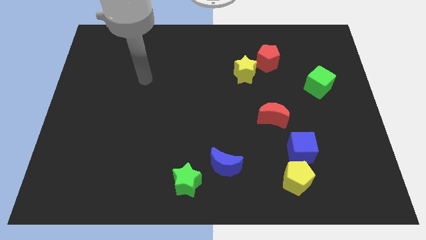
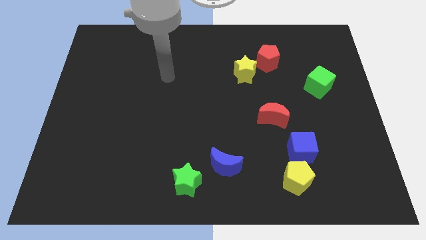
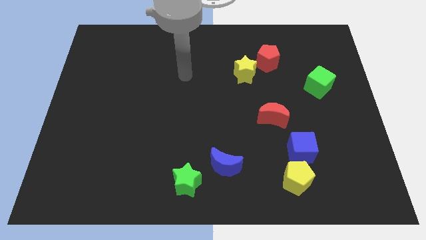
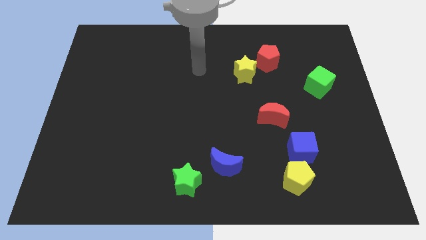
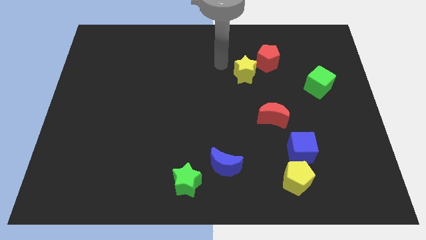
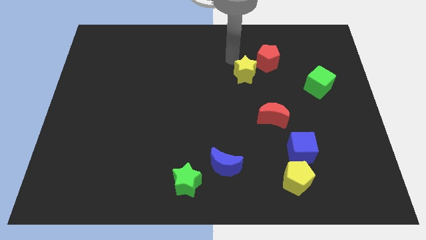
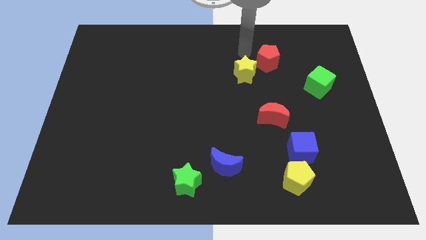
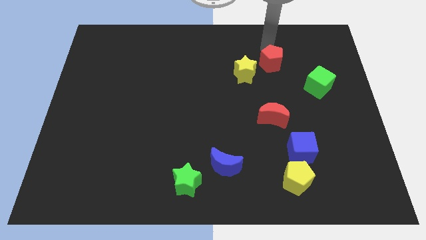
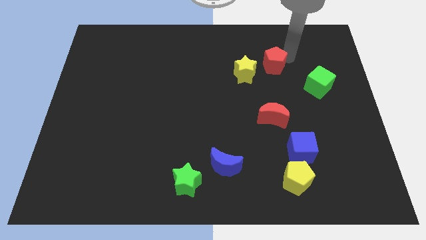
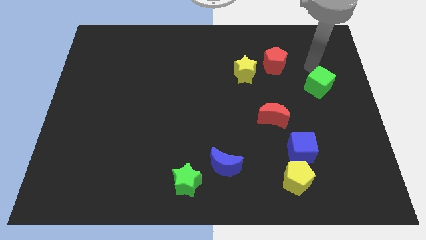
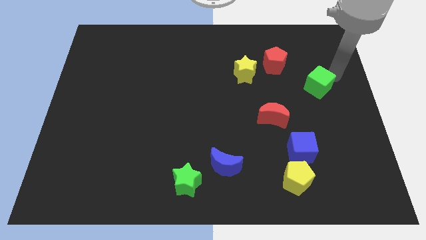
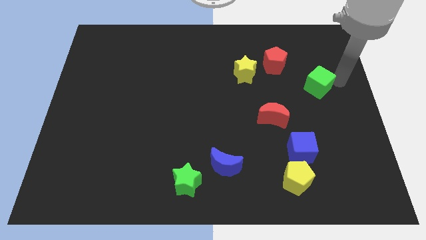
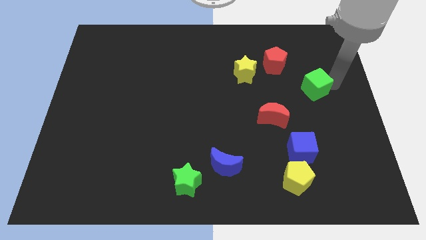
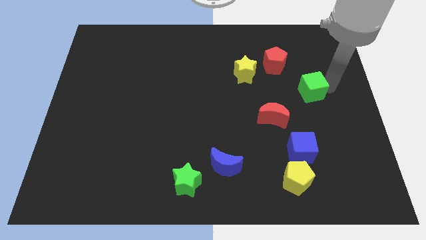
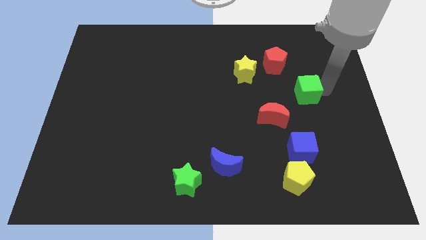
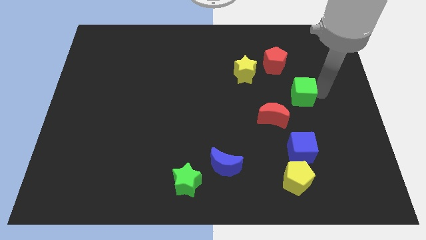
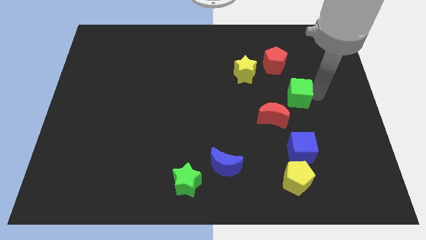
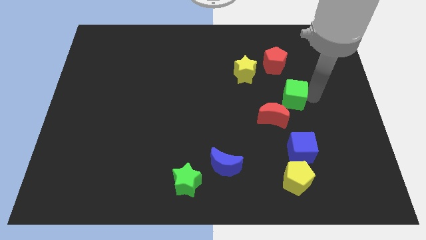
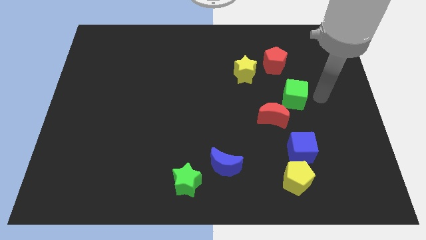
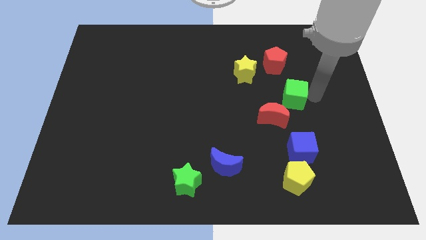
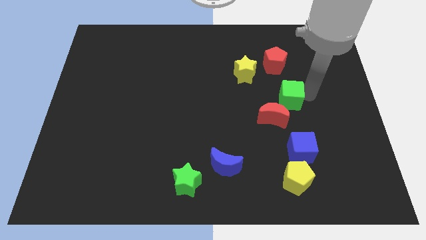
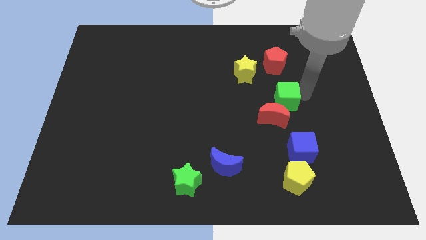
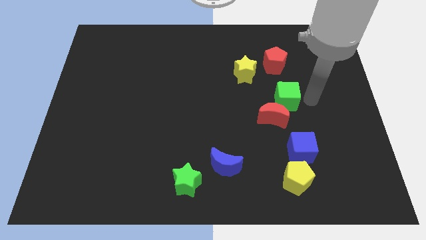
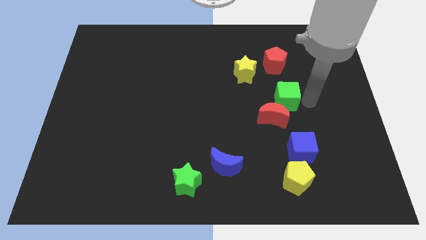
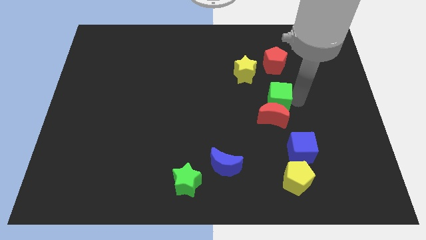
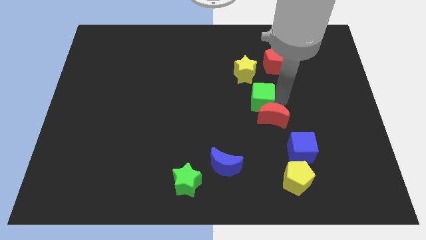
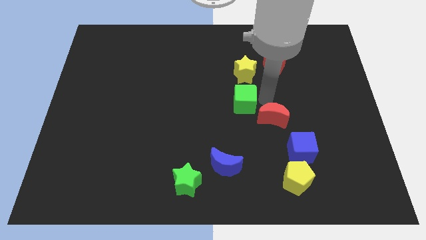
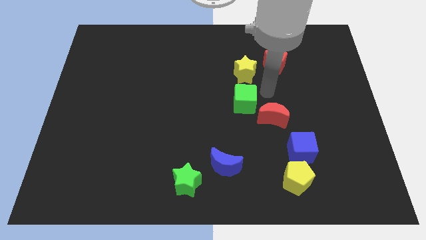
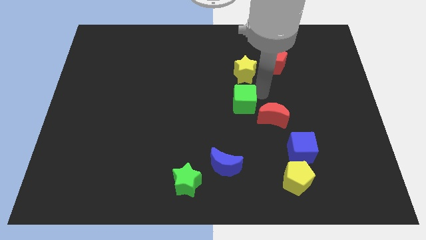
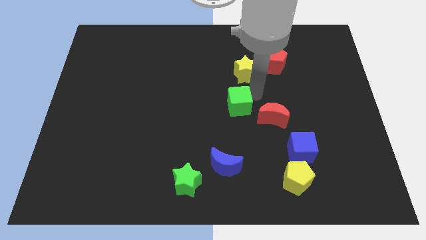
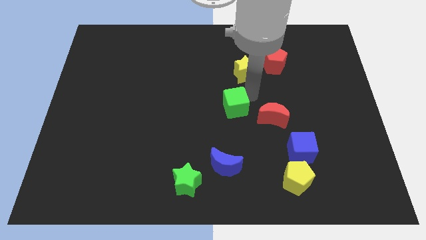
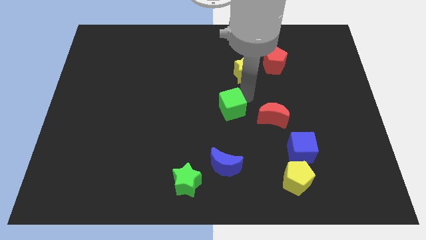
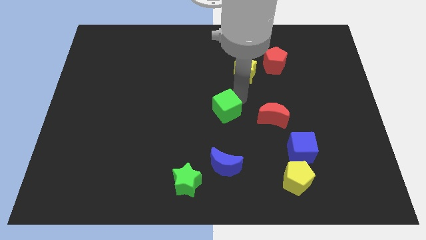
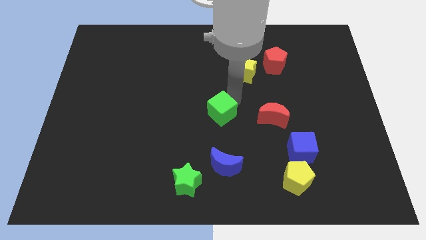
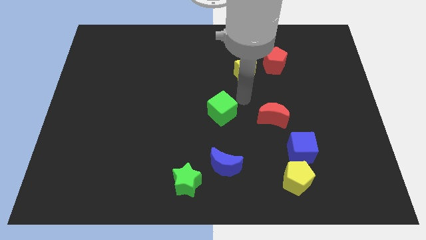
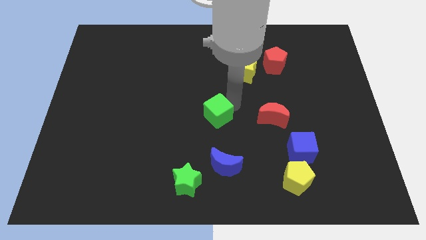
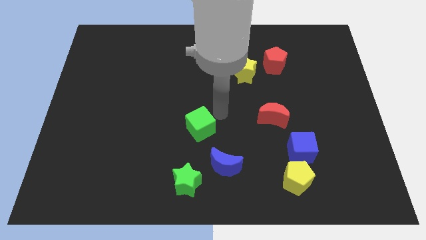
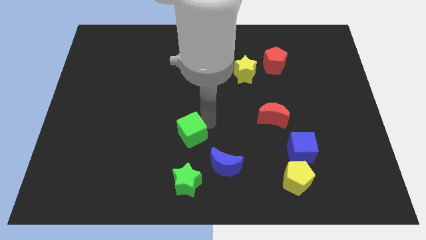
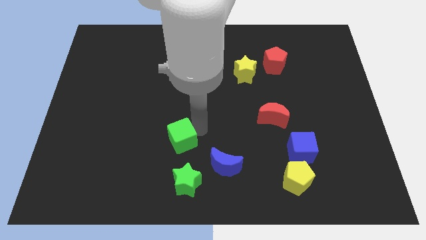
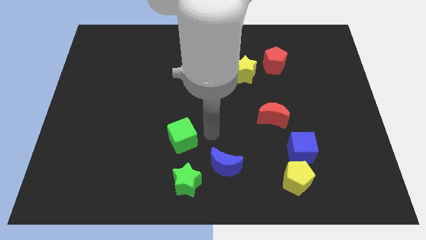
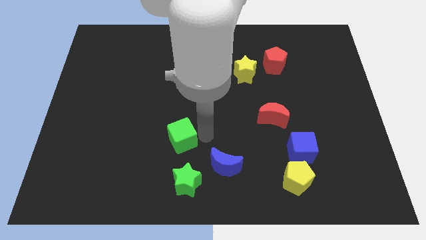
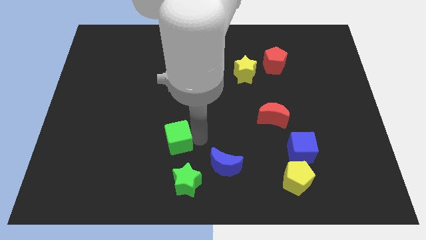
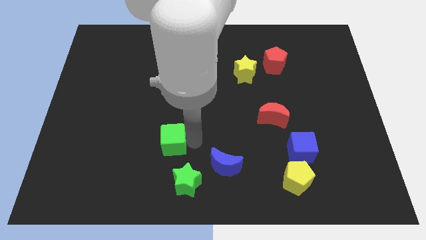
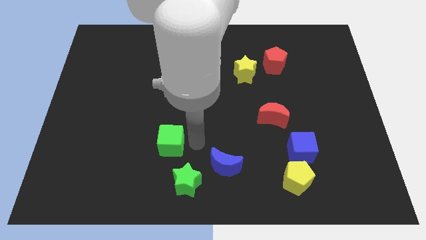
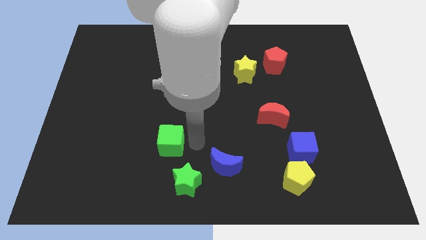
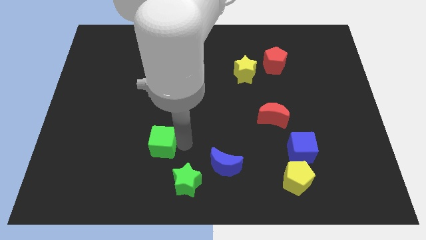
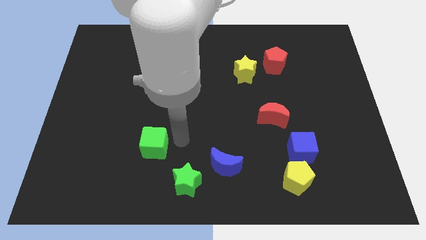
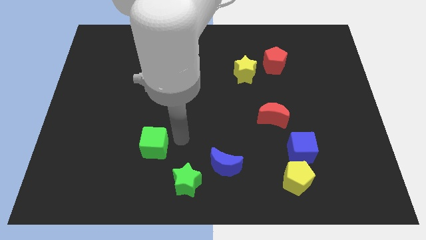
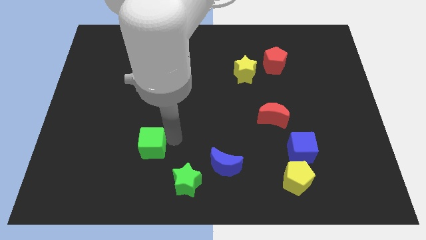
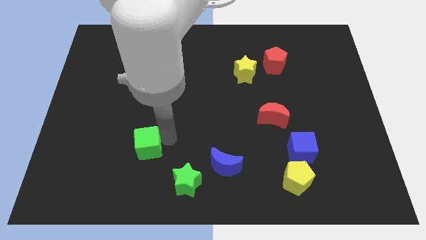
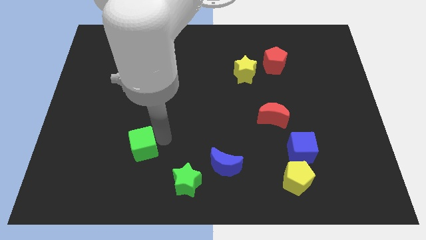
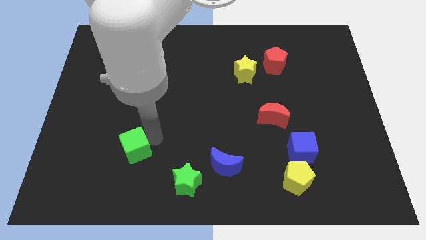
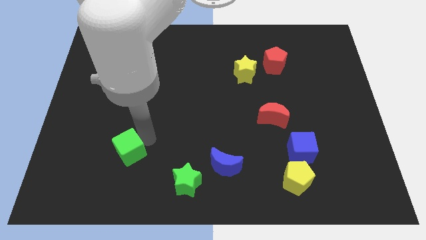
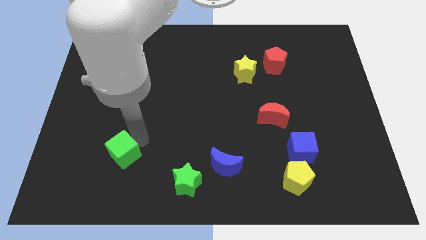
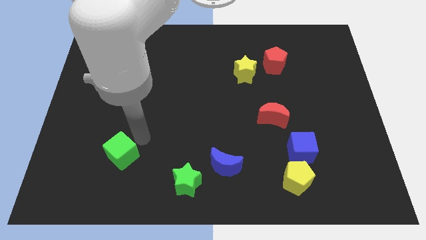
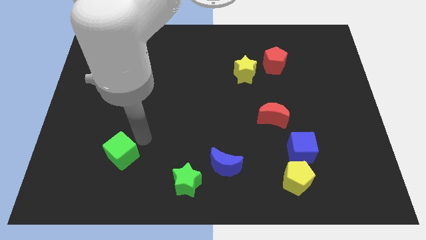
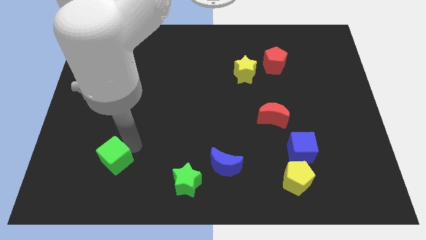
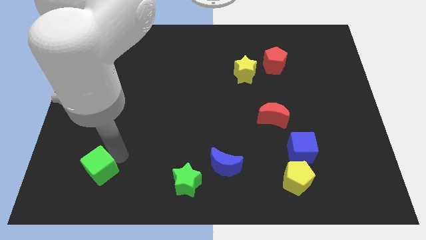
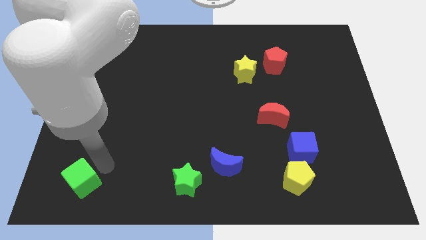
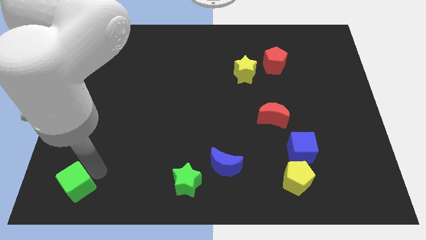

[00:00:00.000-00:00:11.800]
push the green cube to the bottom left
